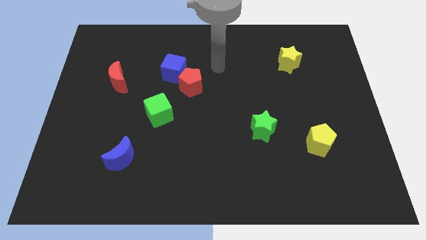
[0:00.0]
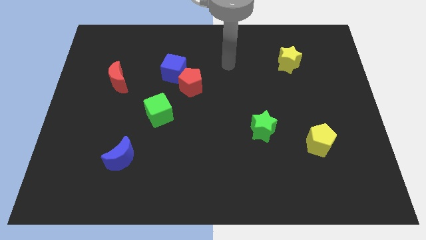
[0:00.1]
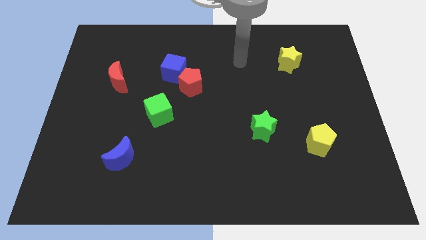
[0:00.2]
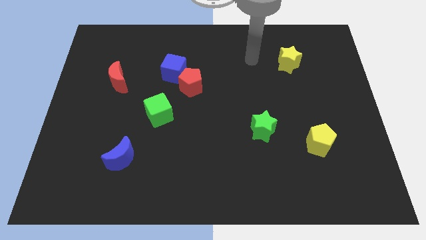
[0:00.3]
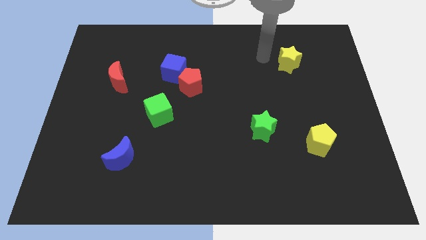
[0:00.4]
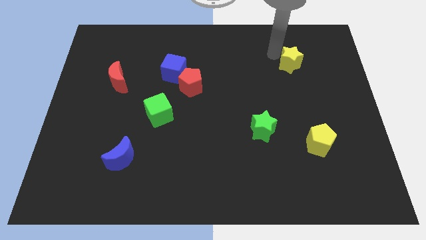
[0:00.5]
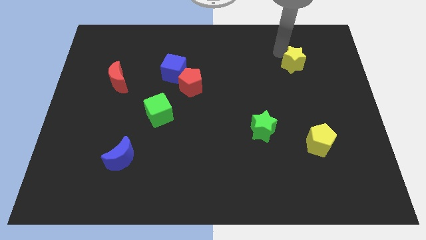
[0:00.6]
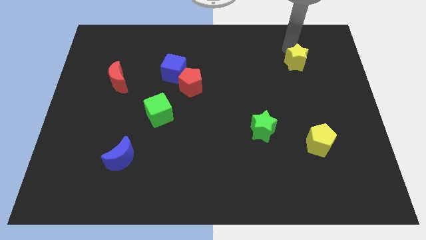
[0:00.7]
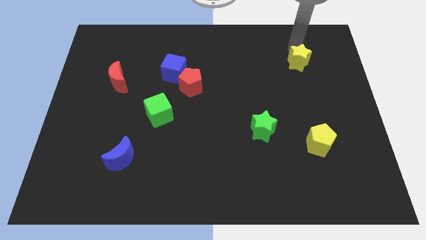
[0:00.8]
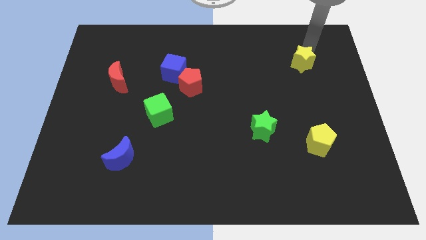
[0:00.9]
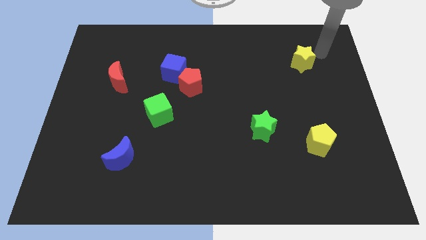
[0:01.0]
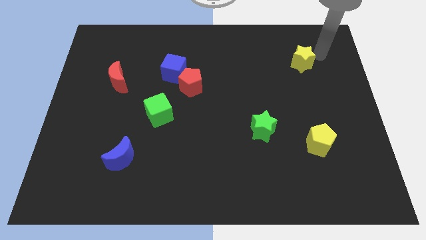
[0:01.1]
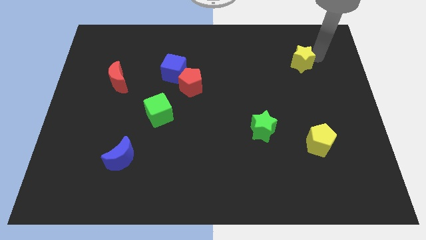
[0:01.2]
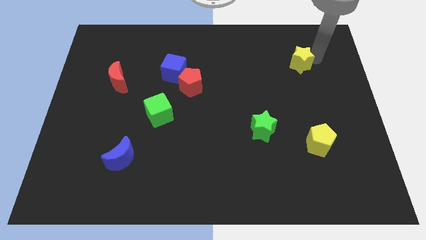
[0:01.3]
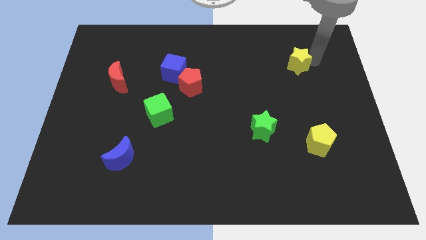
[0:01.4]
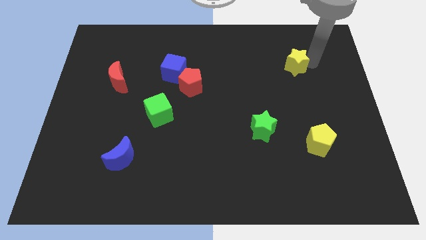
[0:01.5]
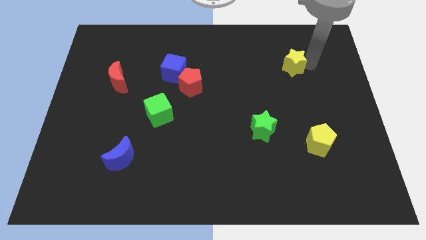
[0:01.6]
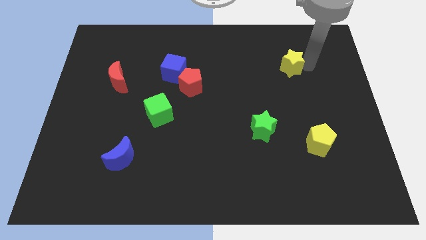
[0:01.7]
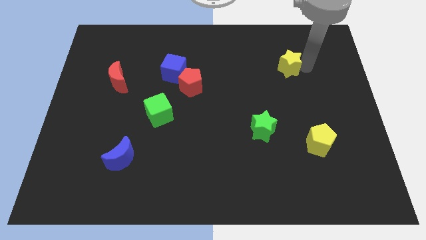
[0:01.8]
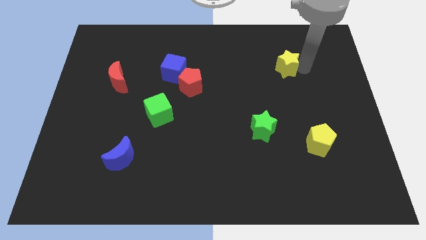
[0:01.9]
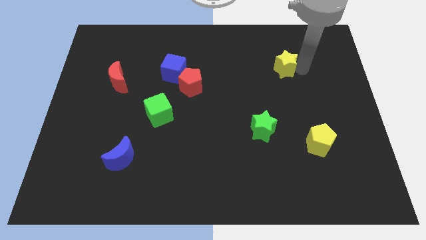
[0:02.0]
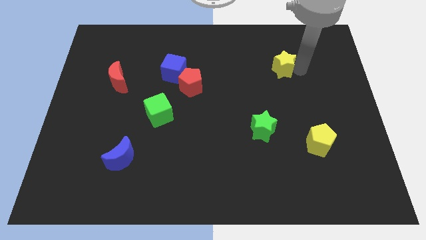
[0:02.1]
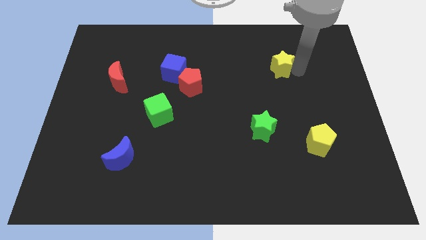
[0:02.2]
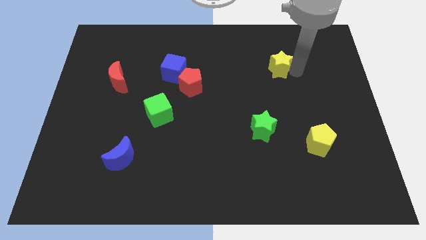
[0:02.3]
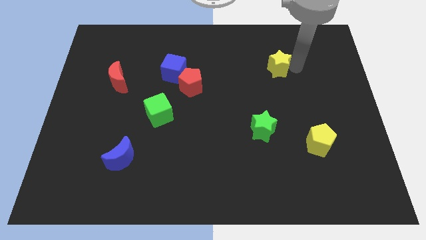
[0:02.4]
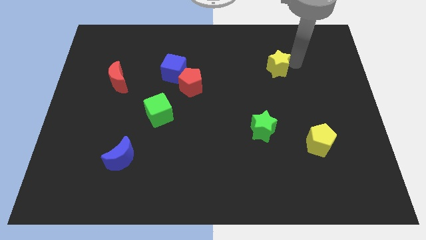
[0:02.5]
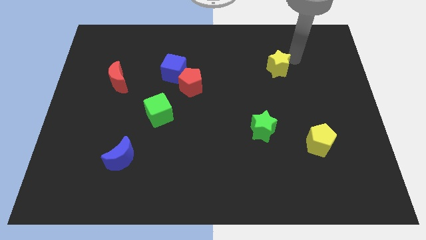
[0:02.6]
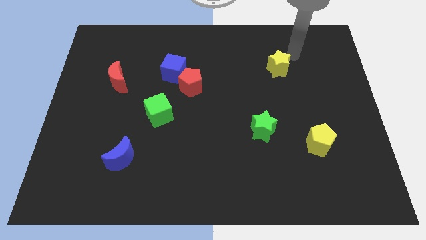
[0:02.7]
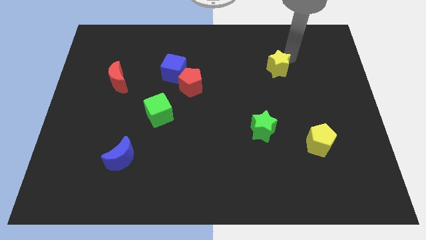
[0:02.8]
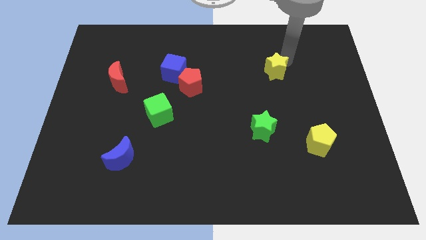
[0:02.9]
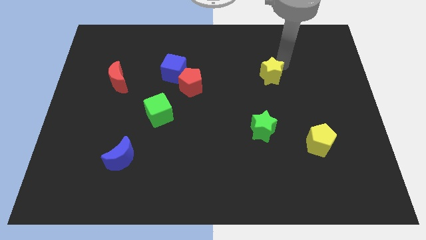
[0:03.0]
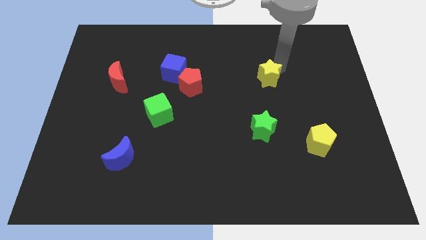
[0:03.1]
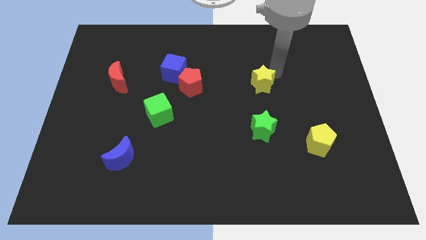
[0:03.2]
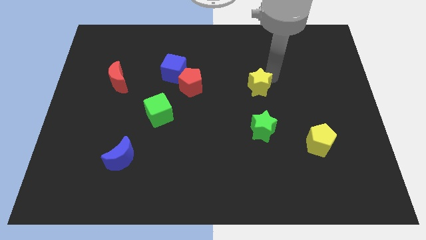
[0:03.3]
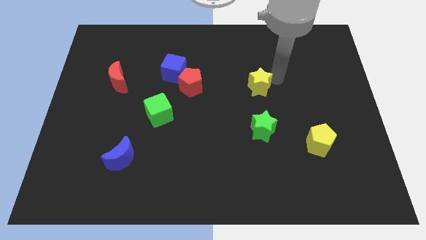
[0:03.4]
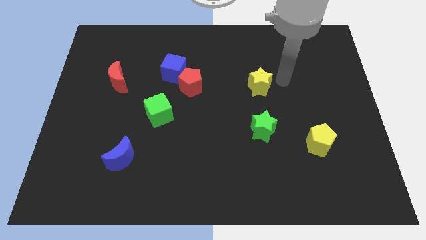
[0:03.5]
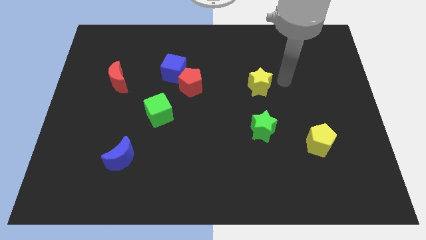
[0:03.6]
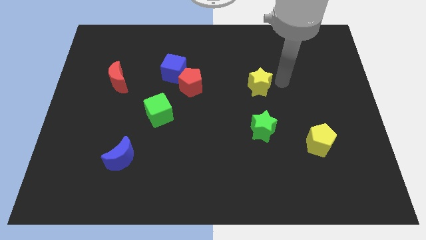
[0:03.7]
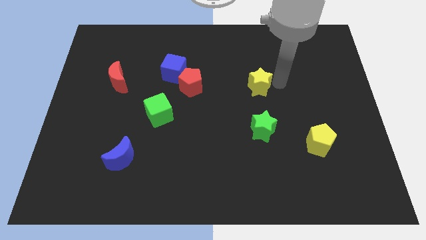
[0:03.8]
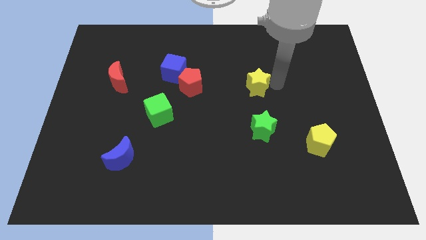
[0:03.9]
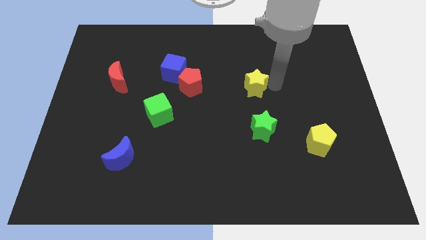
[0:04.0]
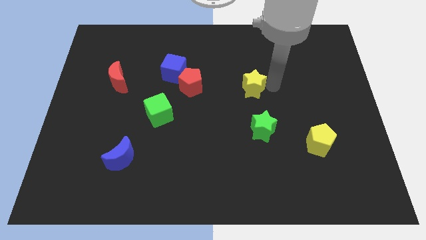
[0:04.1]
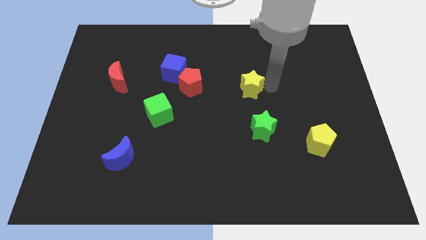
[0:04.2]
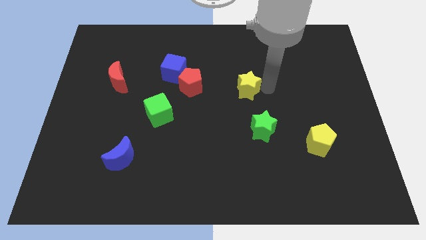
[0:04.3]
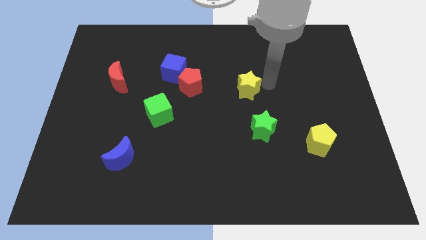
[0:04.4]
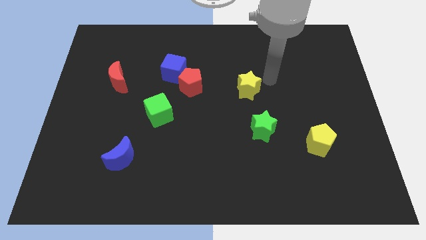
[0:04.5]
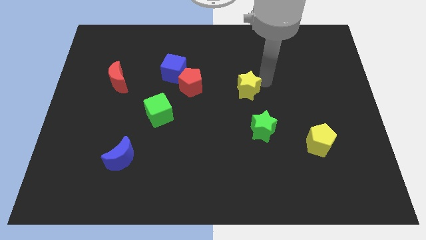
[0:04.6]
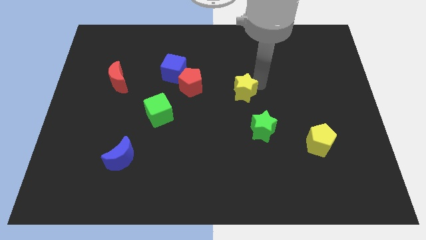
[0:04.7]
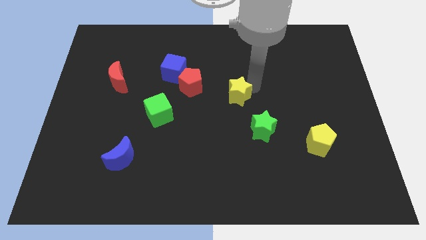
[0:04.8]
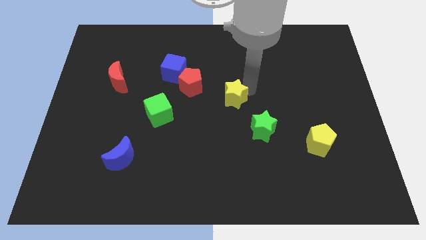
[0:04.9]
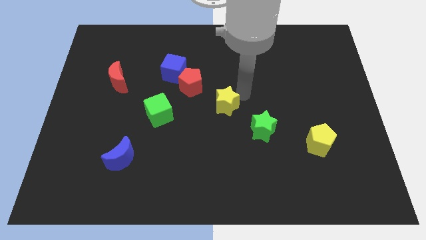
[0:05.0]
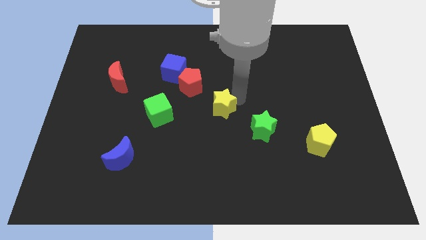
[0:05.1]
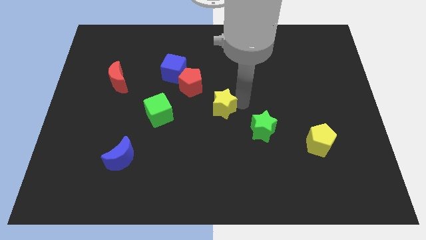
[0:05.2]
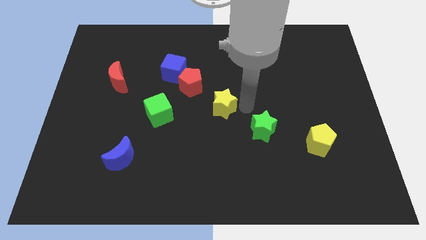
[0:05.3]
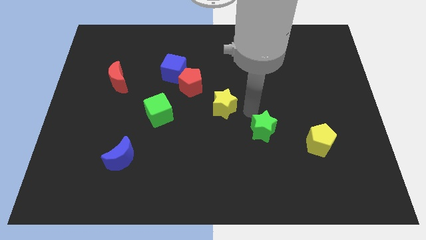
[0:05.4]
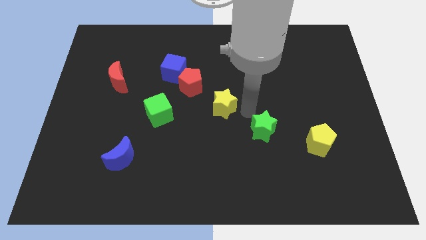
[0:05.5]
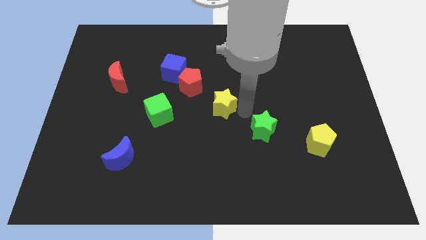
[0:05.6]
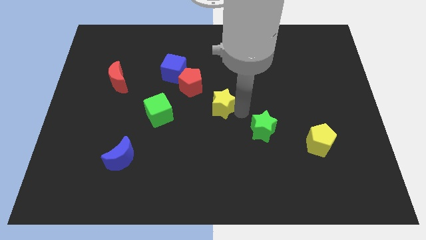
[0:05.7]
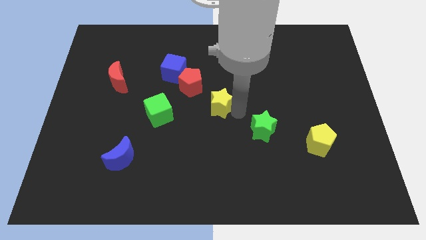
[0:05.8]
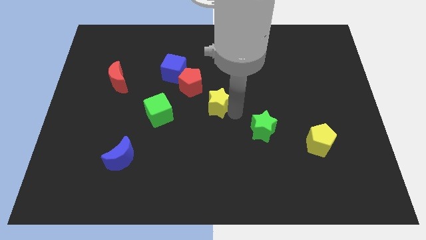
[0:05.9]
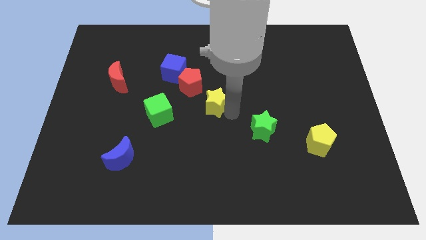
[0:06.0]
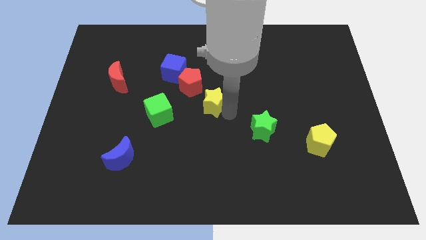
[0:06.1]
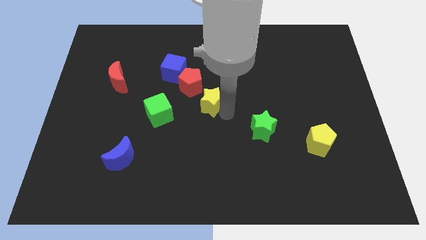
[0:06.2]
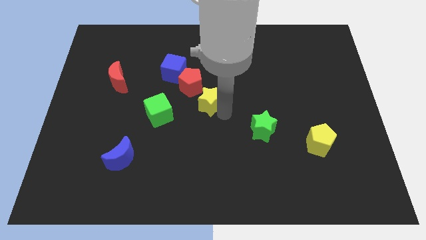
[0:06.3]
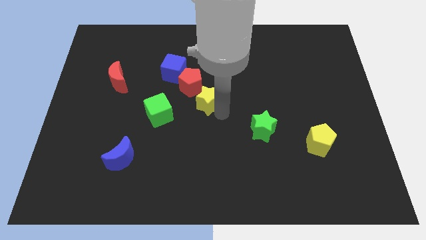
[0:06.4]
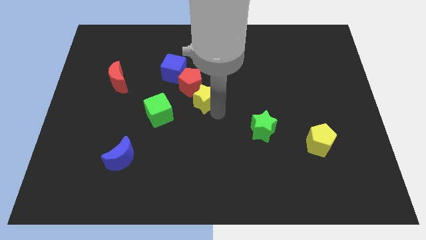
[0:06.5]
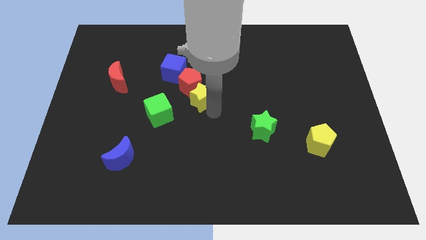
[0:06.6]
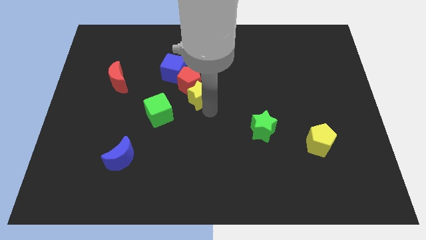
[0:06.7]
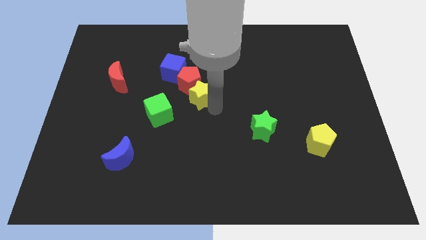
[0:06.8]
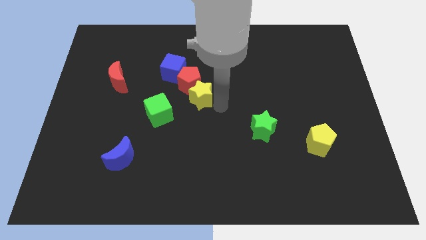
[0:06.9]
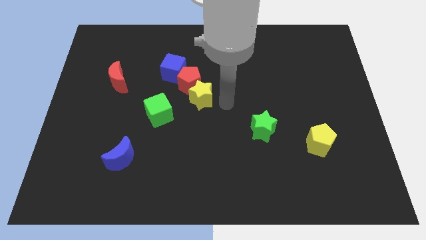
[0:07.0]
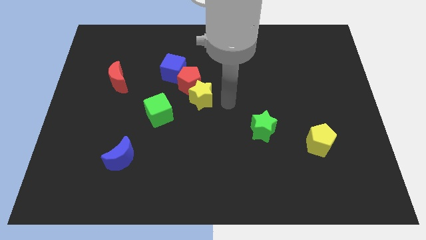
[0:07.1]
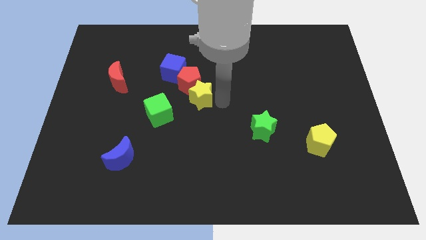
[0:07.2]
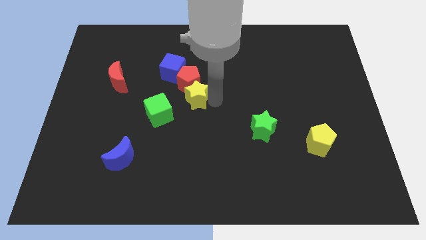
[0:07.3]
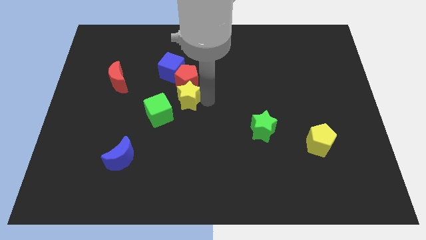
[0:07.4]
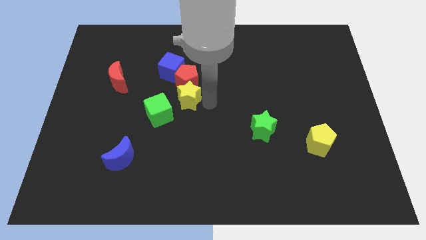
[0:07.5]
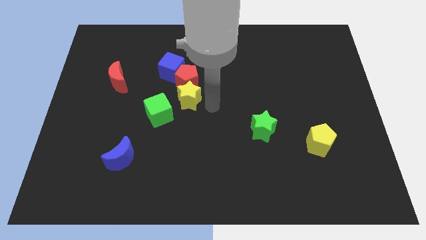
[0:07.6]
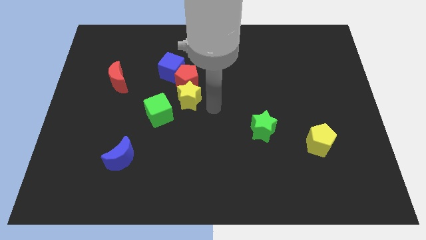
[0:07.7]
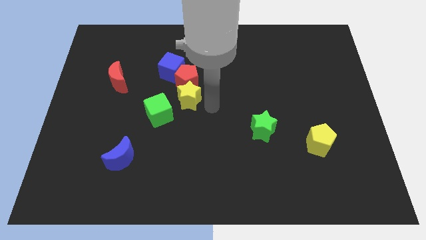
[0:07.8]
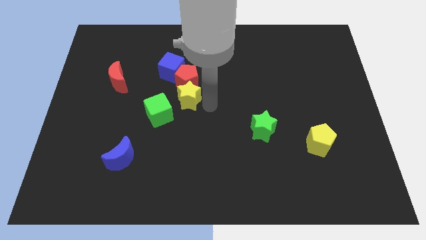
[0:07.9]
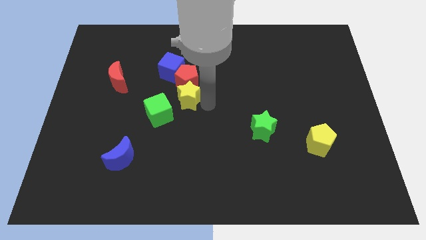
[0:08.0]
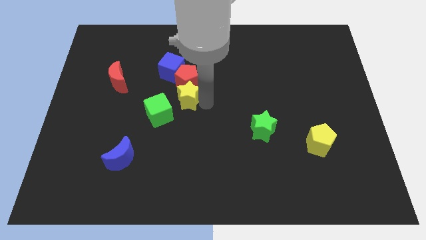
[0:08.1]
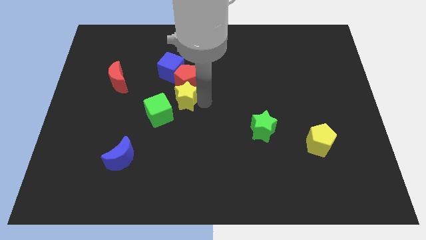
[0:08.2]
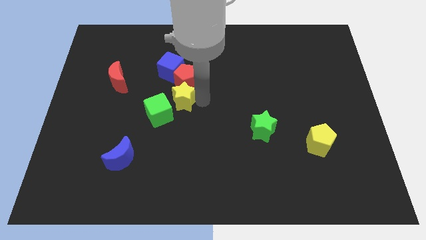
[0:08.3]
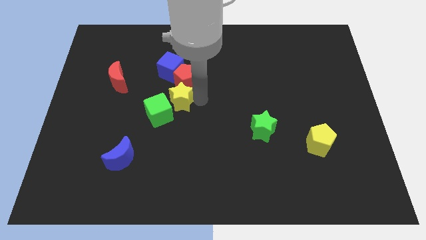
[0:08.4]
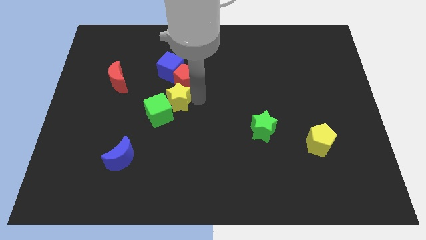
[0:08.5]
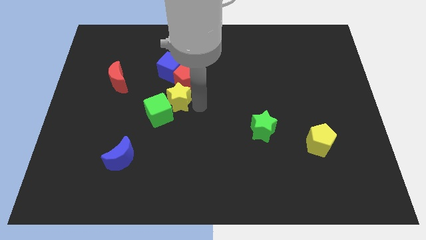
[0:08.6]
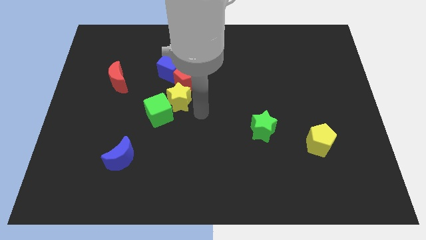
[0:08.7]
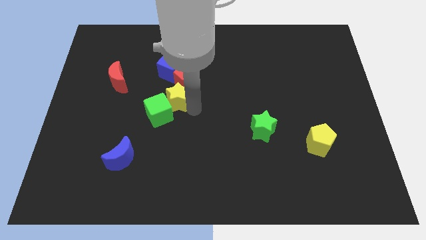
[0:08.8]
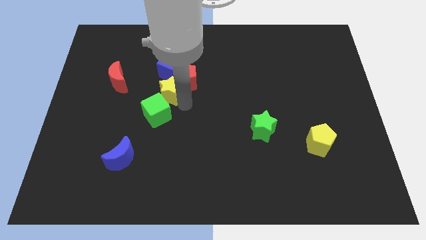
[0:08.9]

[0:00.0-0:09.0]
put the yellow star to the left of the red pentagon
